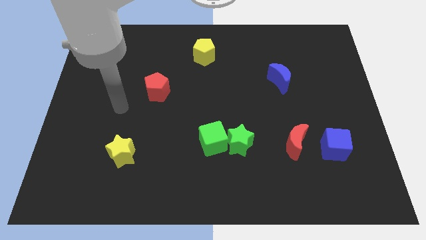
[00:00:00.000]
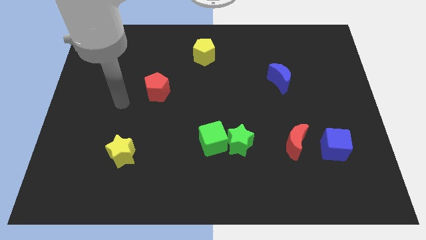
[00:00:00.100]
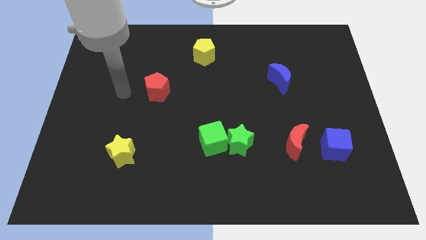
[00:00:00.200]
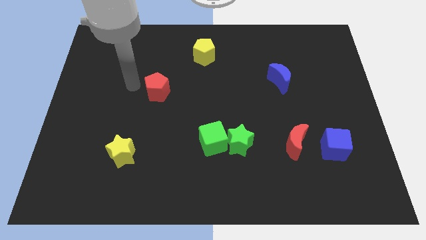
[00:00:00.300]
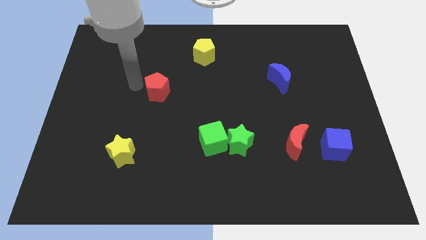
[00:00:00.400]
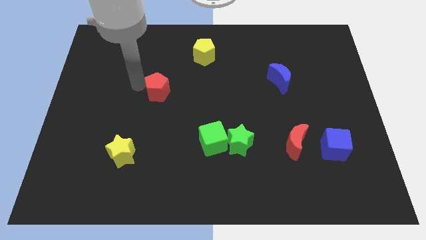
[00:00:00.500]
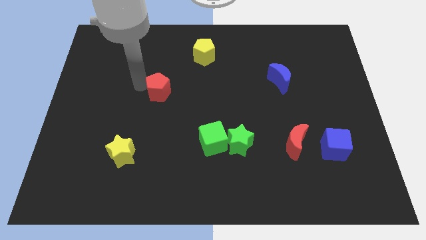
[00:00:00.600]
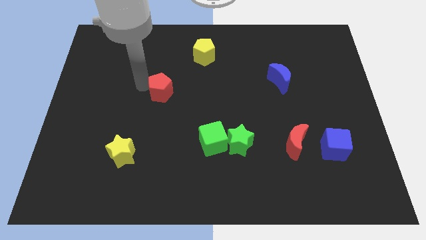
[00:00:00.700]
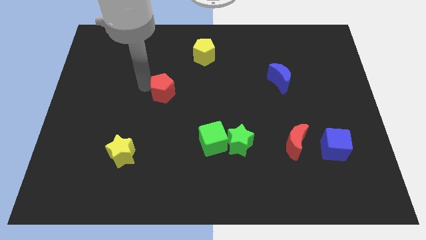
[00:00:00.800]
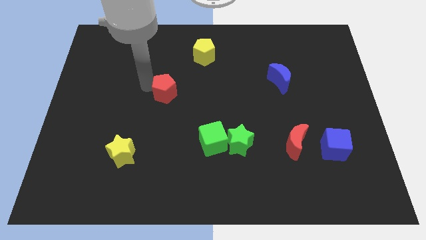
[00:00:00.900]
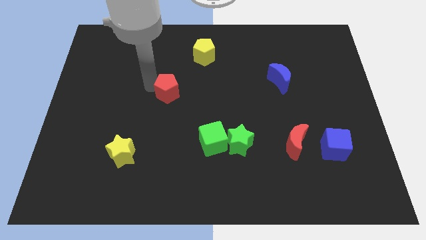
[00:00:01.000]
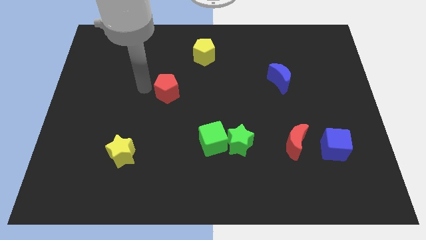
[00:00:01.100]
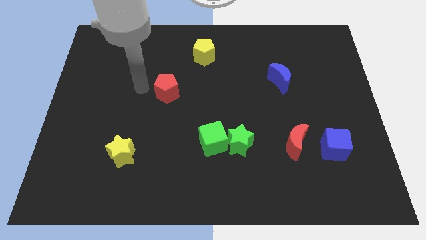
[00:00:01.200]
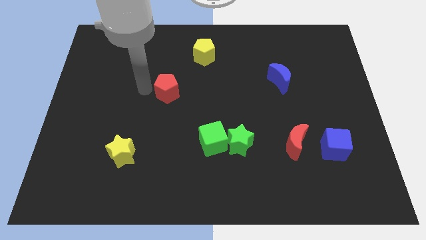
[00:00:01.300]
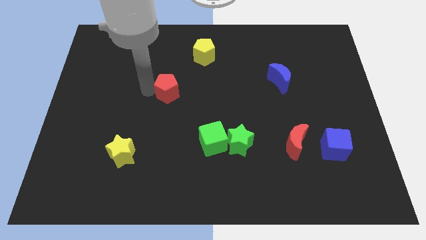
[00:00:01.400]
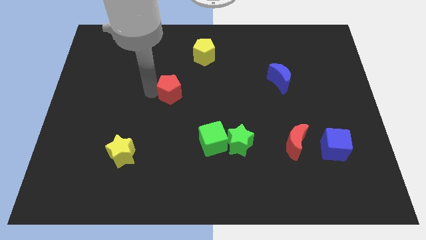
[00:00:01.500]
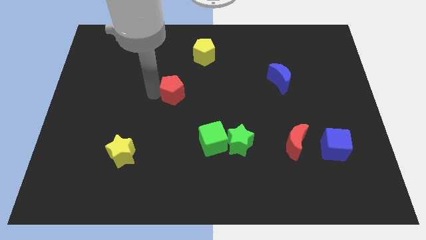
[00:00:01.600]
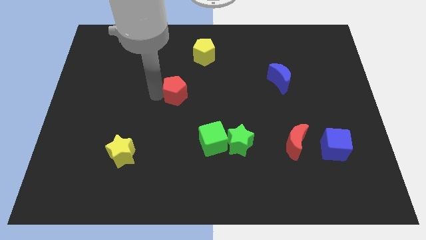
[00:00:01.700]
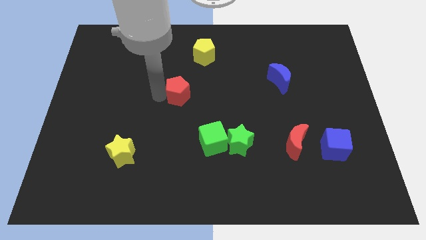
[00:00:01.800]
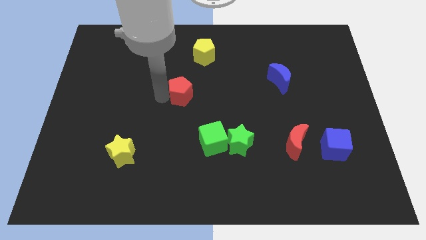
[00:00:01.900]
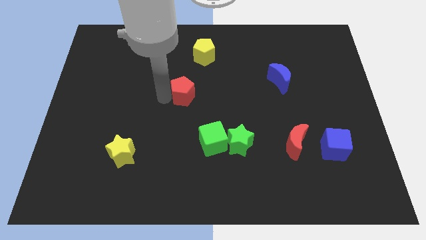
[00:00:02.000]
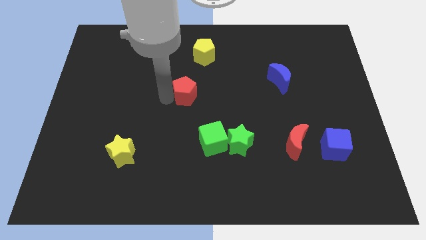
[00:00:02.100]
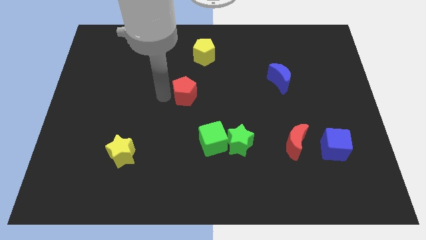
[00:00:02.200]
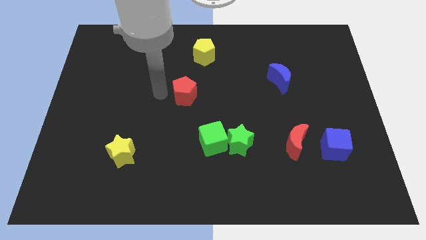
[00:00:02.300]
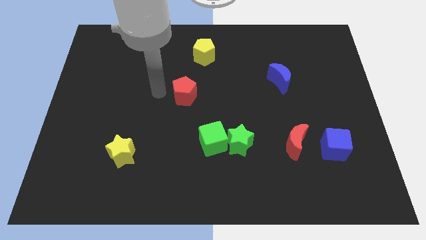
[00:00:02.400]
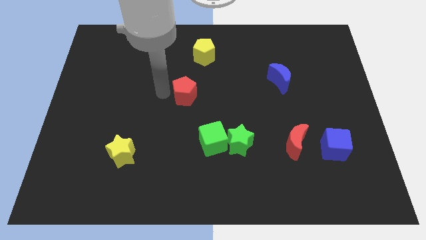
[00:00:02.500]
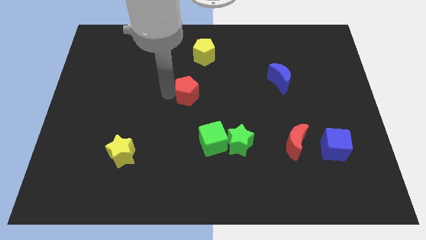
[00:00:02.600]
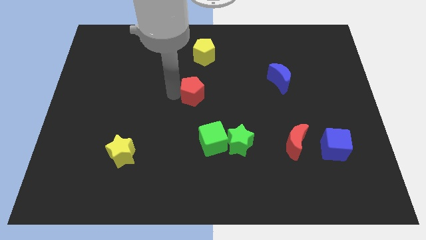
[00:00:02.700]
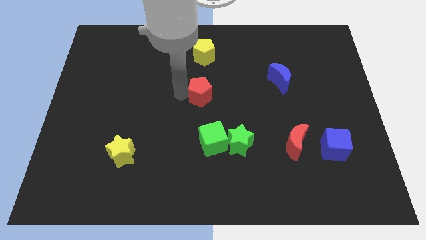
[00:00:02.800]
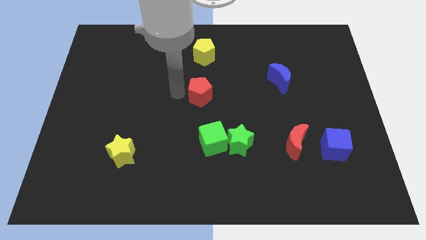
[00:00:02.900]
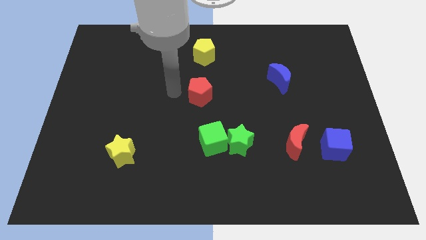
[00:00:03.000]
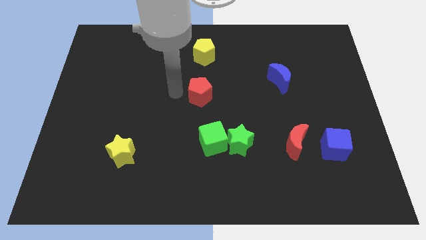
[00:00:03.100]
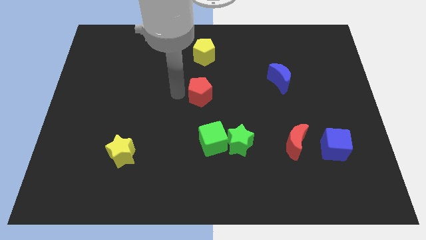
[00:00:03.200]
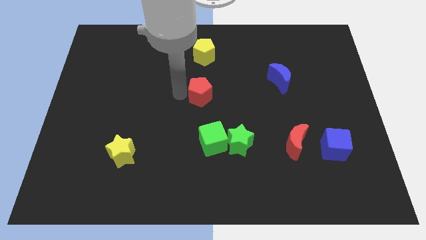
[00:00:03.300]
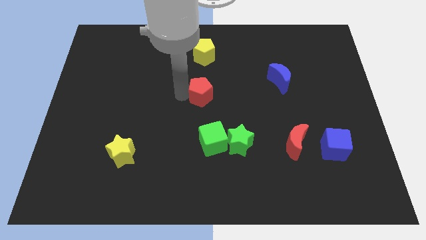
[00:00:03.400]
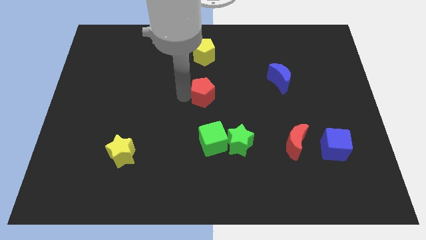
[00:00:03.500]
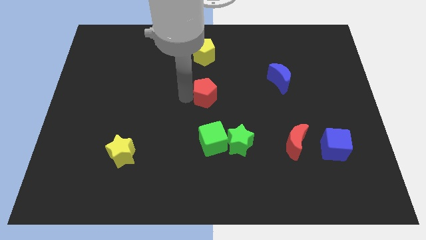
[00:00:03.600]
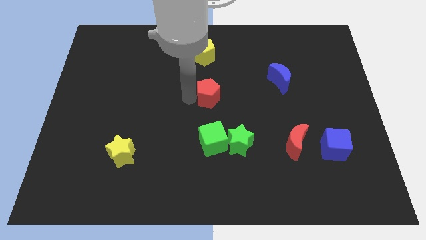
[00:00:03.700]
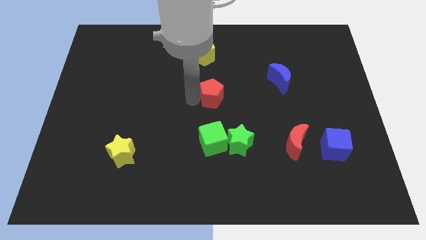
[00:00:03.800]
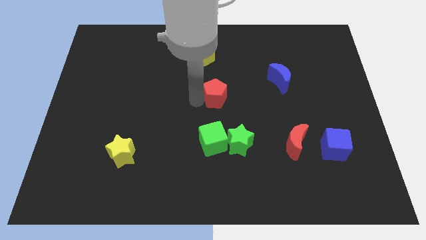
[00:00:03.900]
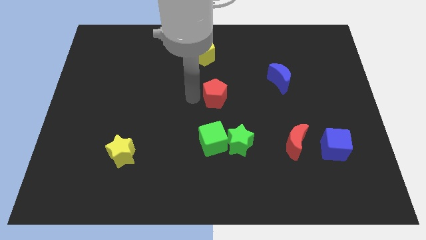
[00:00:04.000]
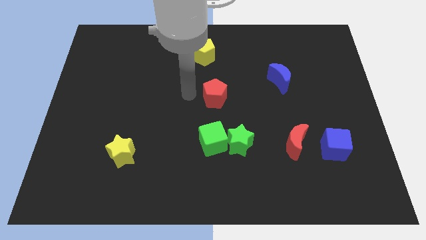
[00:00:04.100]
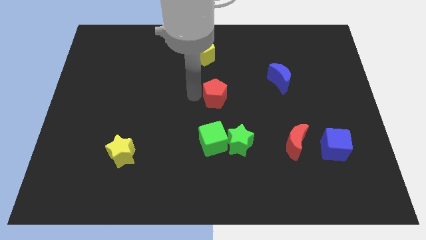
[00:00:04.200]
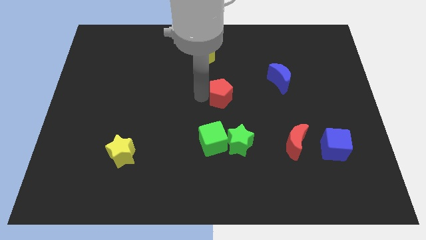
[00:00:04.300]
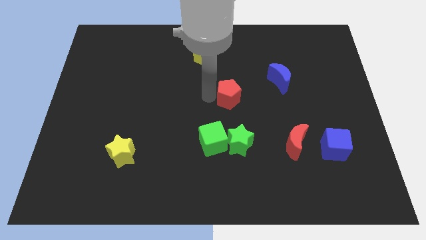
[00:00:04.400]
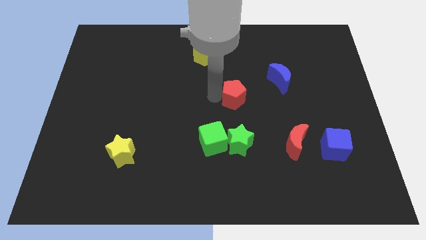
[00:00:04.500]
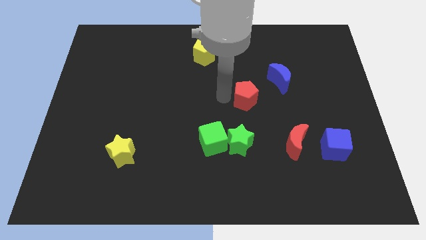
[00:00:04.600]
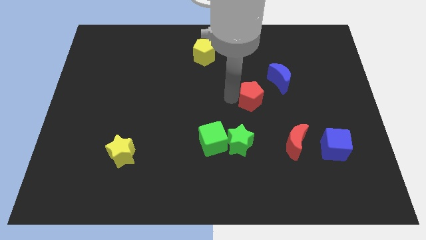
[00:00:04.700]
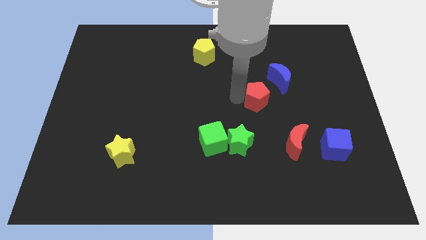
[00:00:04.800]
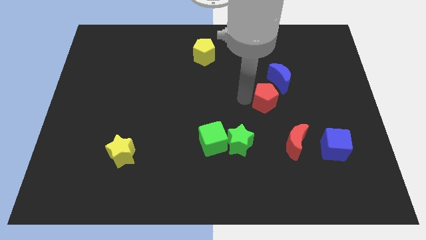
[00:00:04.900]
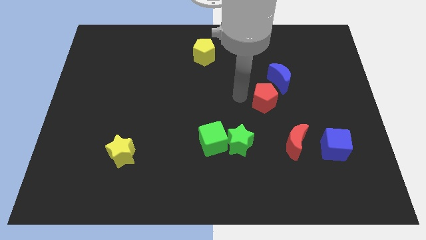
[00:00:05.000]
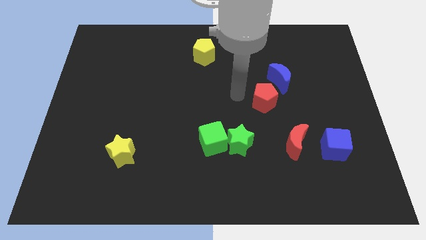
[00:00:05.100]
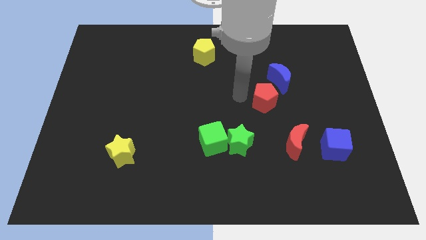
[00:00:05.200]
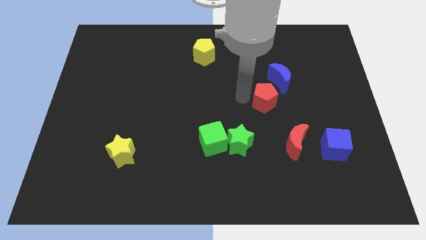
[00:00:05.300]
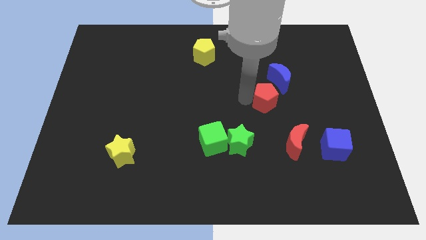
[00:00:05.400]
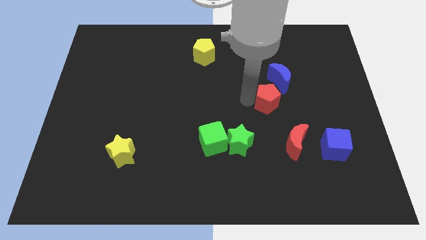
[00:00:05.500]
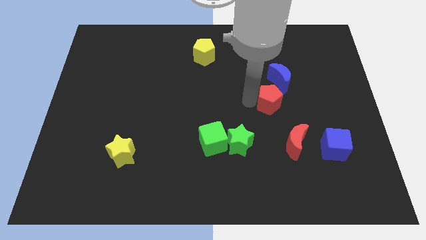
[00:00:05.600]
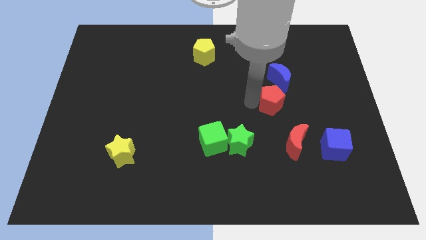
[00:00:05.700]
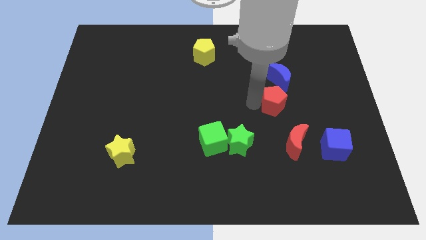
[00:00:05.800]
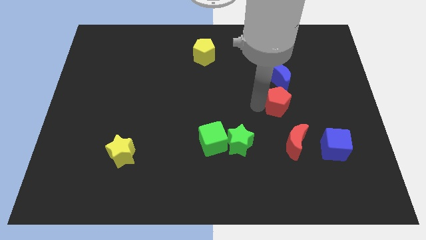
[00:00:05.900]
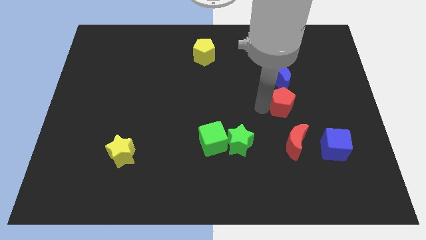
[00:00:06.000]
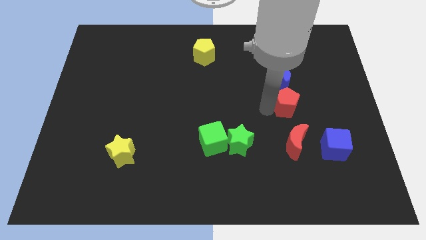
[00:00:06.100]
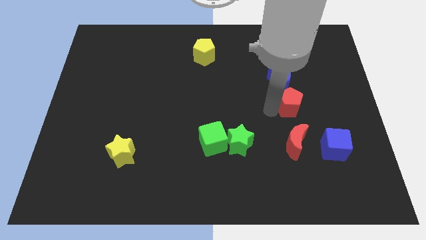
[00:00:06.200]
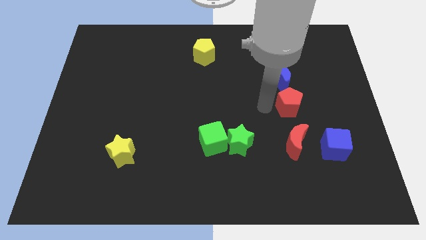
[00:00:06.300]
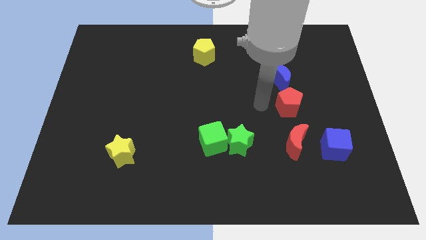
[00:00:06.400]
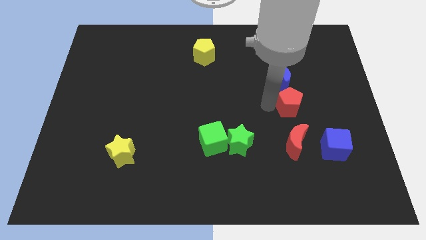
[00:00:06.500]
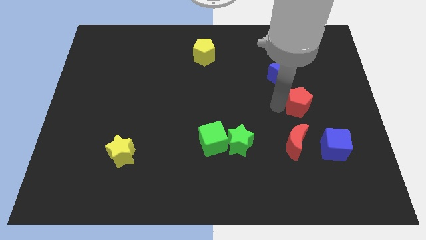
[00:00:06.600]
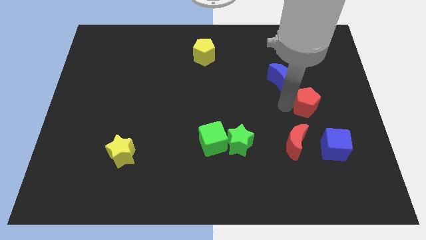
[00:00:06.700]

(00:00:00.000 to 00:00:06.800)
slide the red pentagon to the top of the blue cube

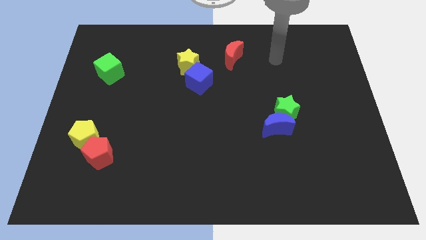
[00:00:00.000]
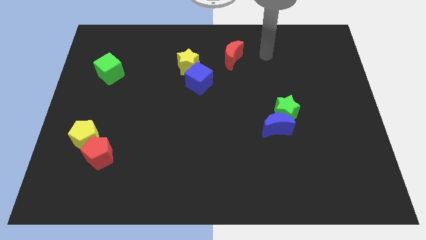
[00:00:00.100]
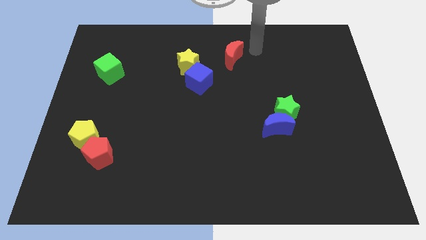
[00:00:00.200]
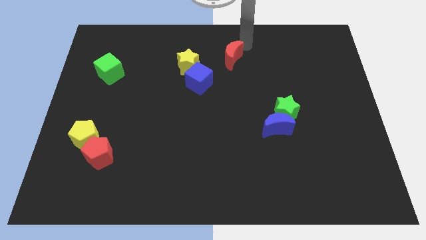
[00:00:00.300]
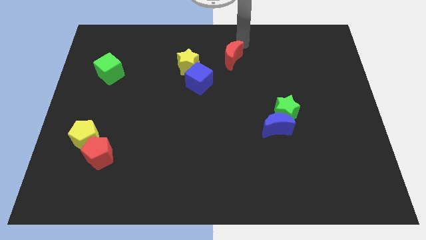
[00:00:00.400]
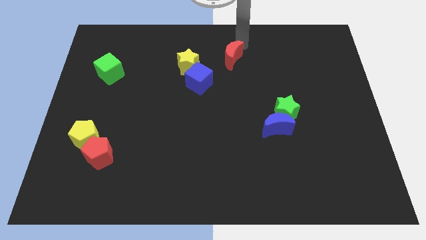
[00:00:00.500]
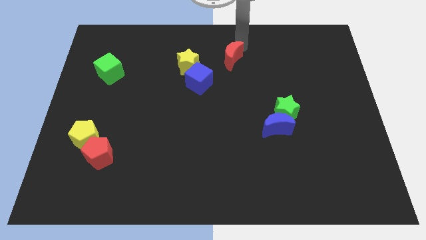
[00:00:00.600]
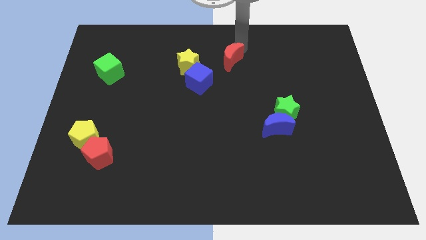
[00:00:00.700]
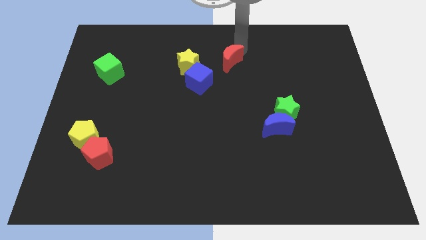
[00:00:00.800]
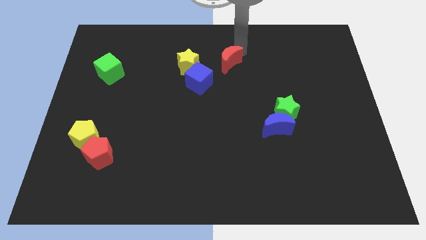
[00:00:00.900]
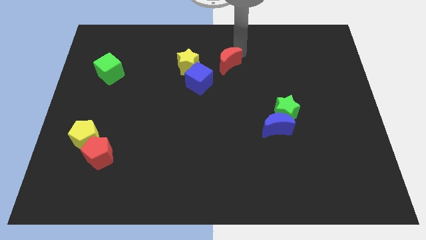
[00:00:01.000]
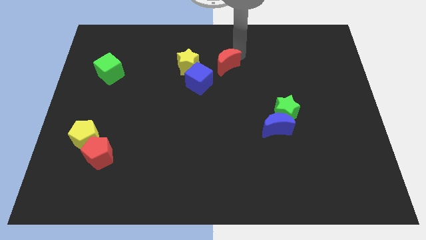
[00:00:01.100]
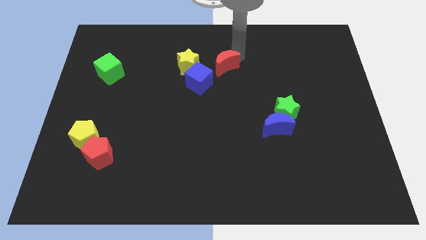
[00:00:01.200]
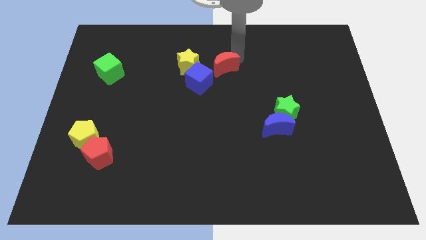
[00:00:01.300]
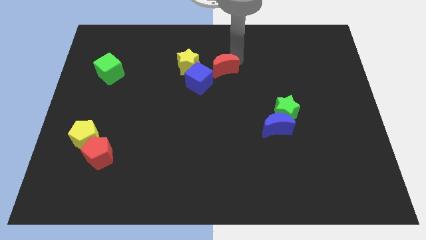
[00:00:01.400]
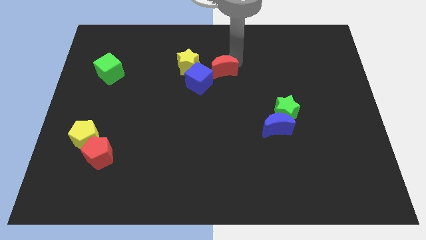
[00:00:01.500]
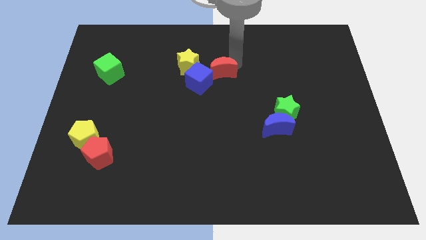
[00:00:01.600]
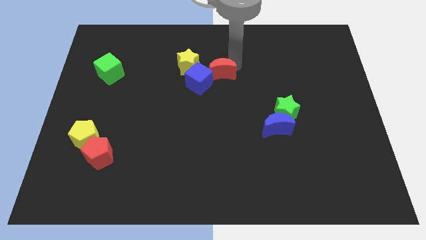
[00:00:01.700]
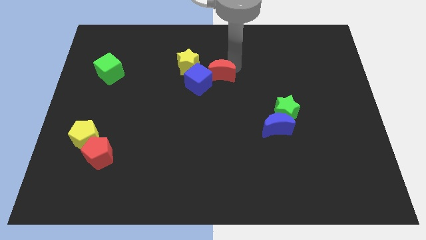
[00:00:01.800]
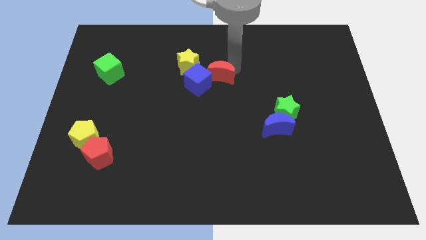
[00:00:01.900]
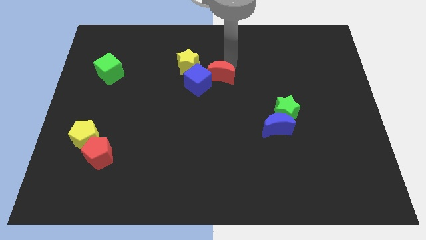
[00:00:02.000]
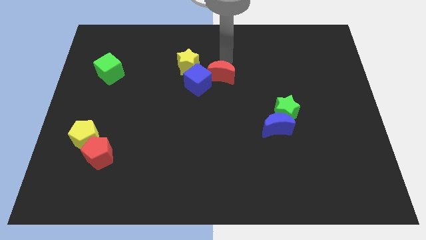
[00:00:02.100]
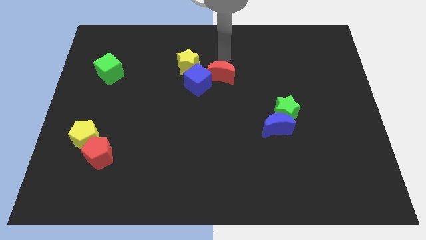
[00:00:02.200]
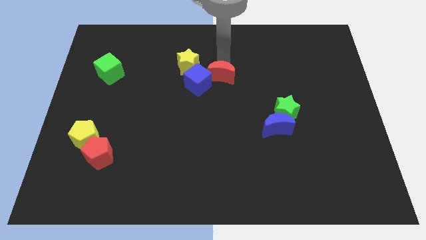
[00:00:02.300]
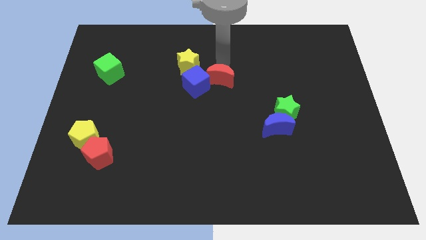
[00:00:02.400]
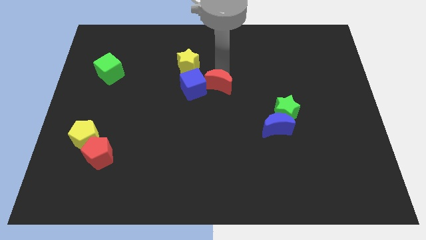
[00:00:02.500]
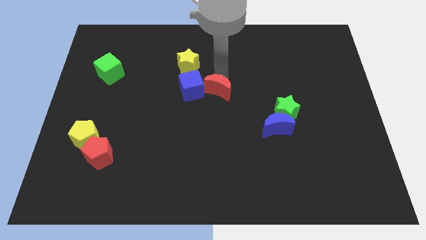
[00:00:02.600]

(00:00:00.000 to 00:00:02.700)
move the red moon diagonally down and to the right of the blue cube
